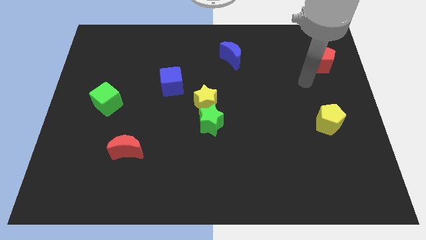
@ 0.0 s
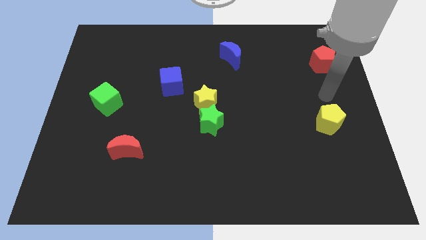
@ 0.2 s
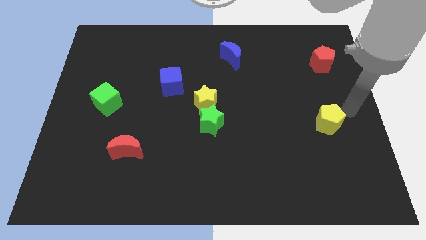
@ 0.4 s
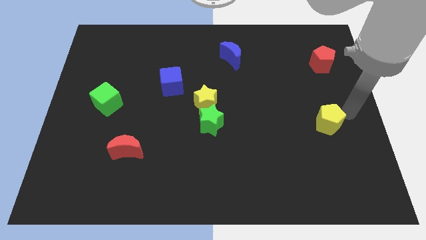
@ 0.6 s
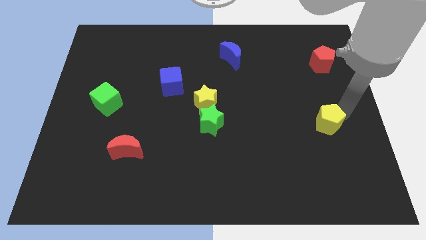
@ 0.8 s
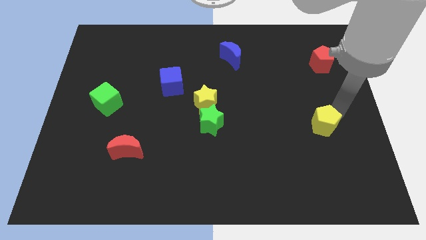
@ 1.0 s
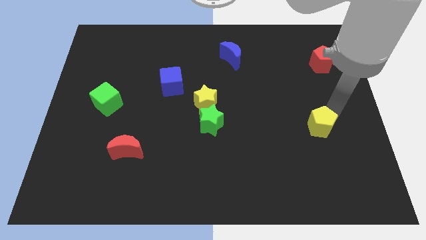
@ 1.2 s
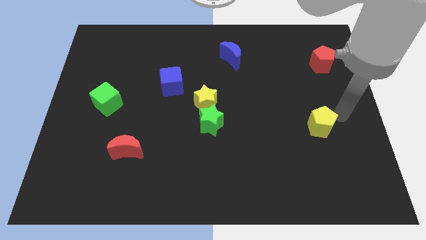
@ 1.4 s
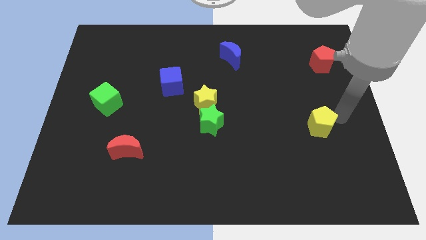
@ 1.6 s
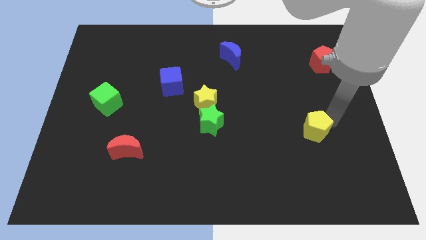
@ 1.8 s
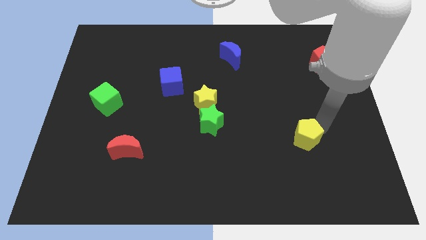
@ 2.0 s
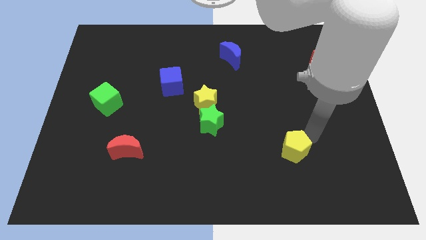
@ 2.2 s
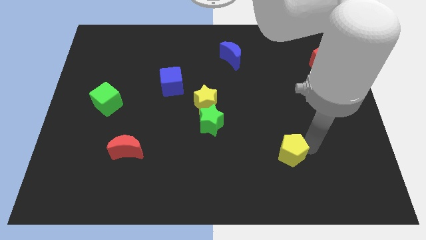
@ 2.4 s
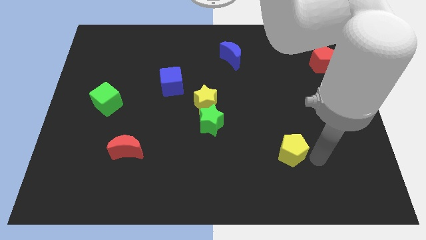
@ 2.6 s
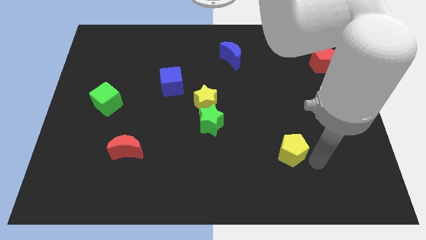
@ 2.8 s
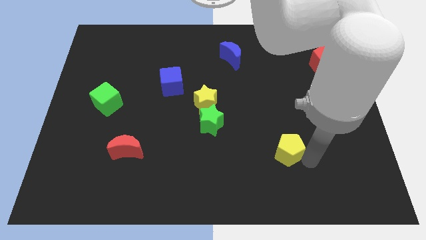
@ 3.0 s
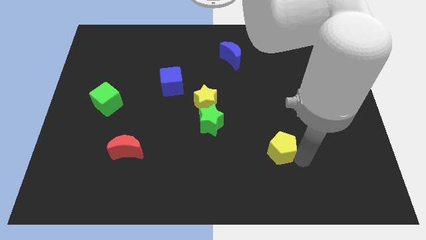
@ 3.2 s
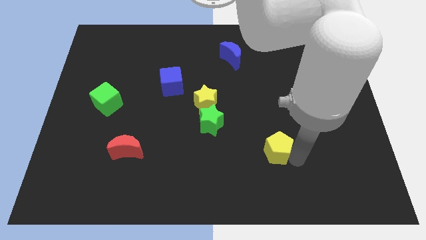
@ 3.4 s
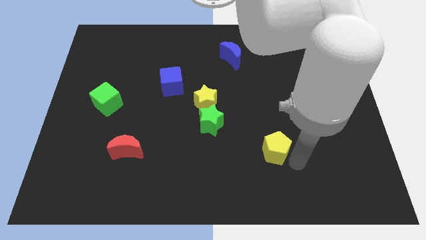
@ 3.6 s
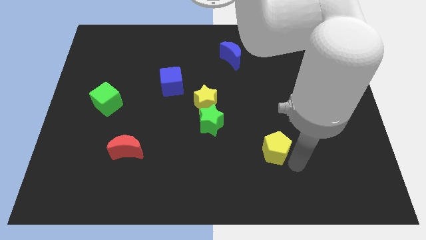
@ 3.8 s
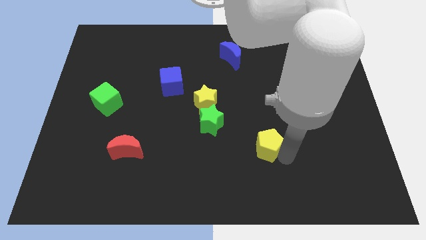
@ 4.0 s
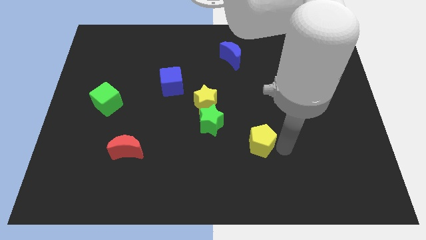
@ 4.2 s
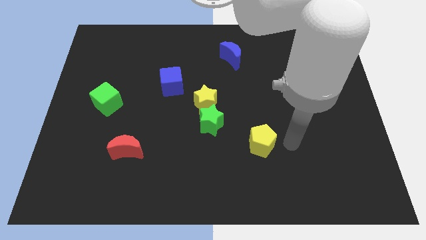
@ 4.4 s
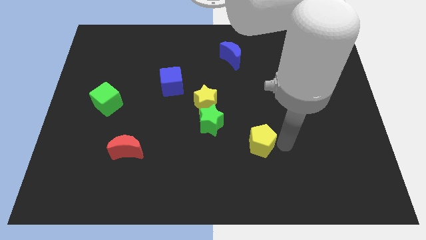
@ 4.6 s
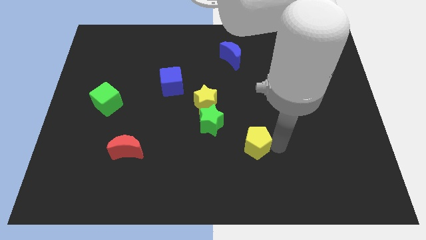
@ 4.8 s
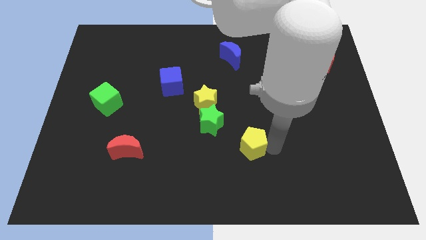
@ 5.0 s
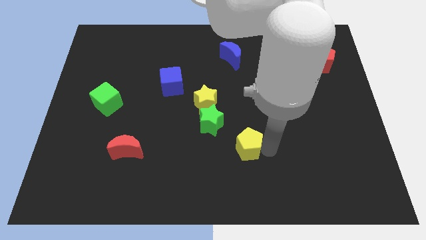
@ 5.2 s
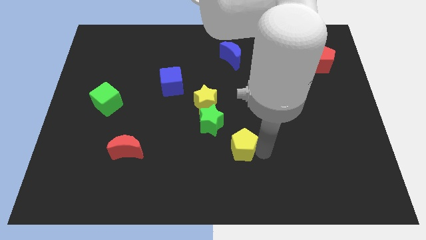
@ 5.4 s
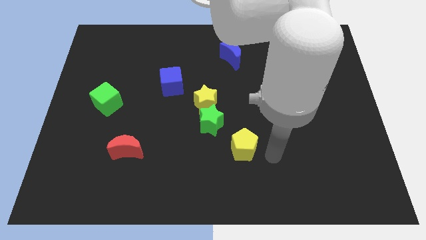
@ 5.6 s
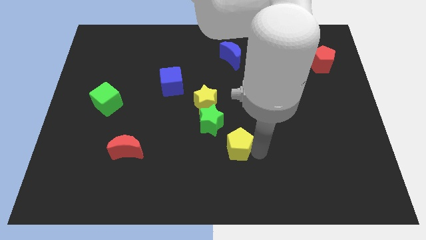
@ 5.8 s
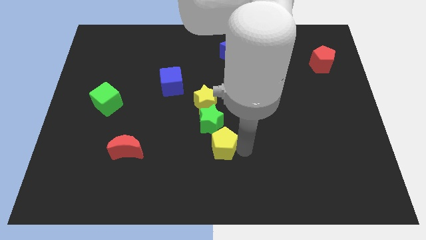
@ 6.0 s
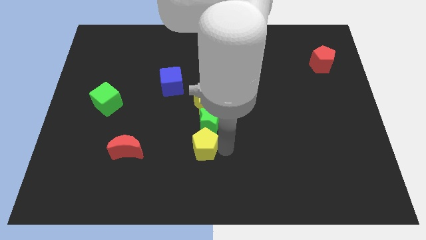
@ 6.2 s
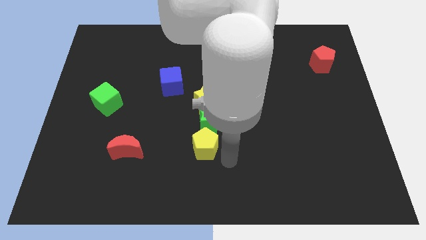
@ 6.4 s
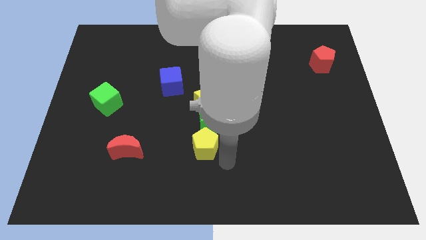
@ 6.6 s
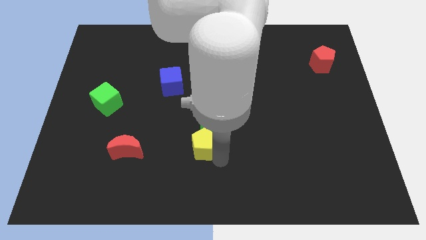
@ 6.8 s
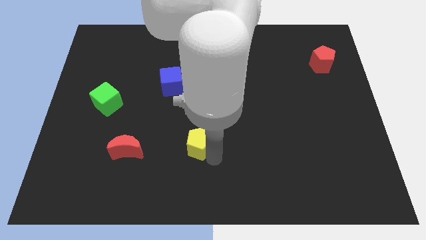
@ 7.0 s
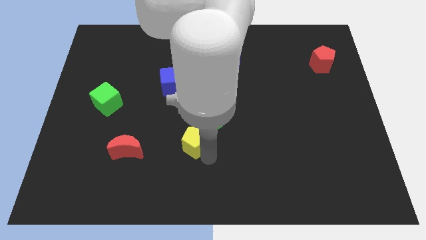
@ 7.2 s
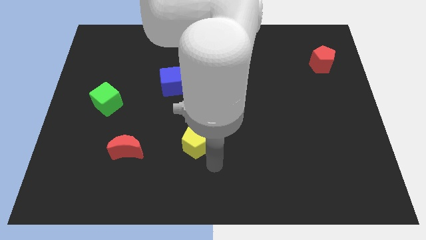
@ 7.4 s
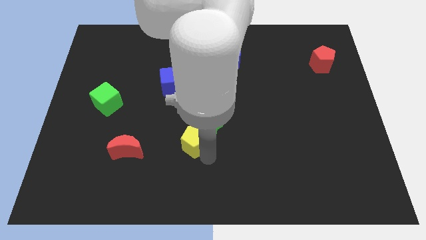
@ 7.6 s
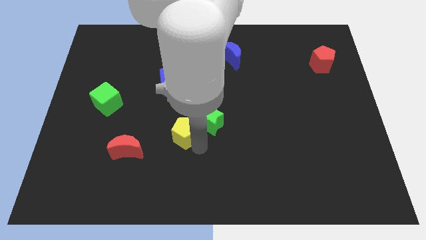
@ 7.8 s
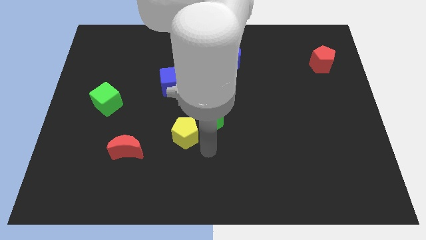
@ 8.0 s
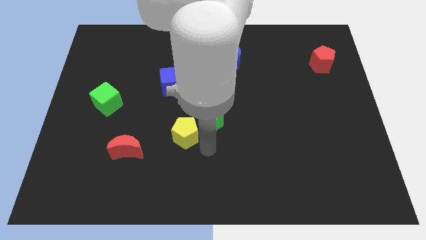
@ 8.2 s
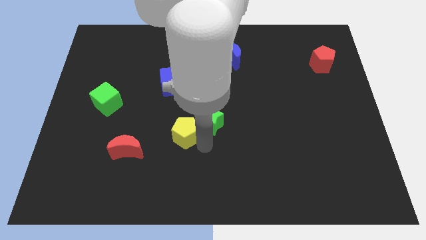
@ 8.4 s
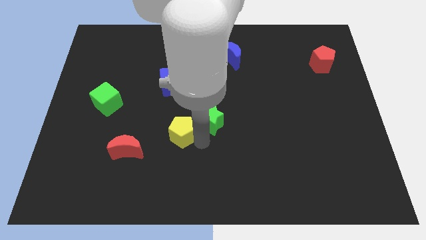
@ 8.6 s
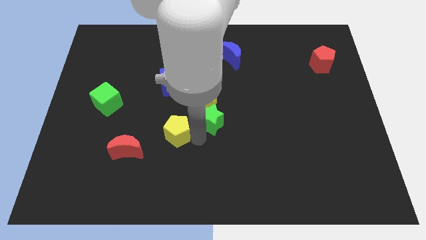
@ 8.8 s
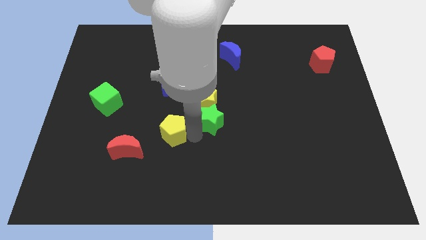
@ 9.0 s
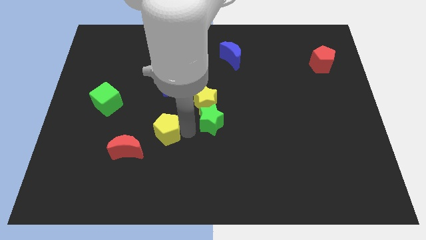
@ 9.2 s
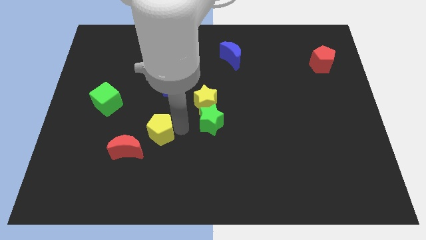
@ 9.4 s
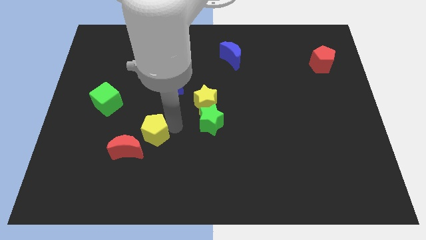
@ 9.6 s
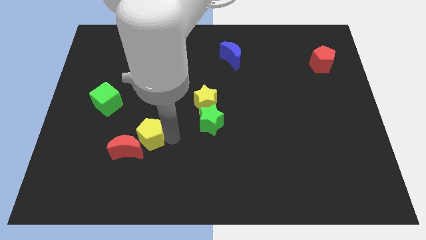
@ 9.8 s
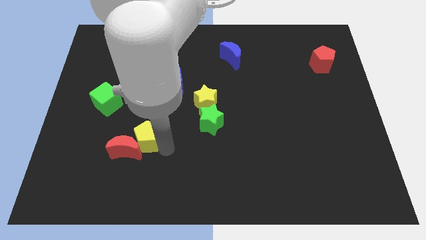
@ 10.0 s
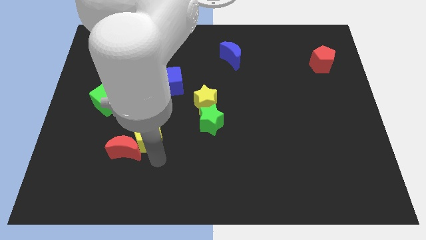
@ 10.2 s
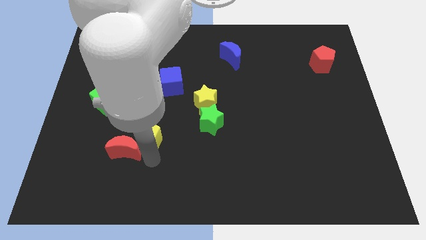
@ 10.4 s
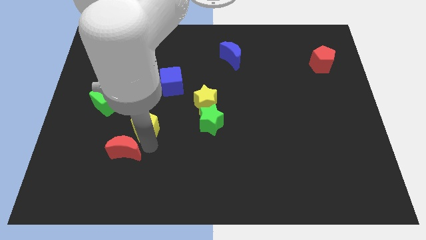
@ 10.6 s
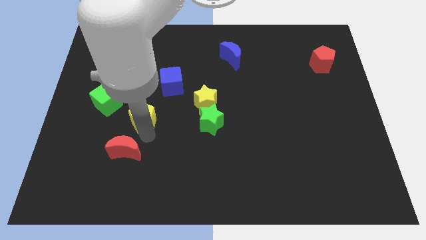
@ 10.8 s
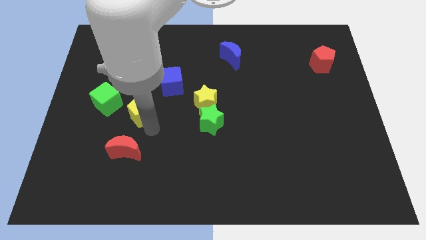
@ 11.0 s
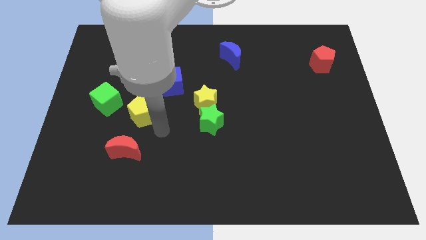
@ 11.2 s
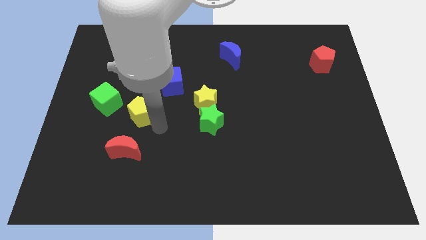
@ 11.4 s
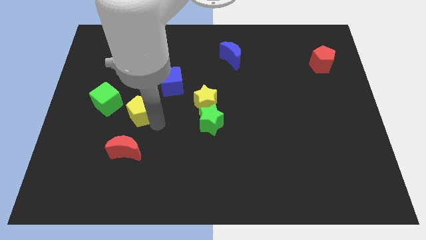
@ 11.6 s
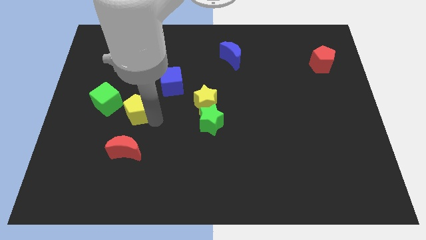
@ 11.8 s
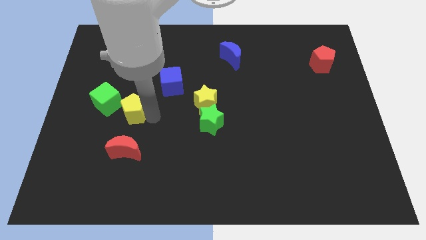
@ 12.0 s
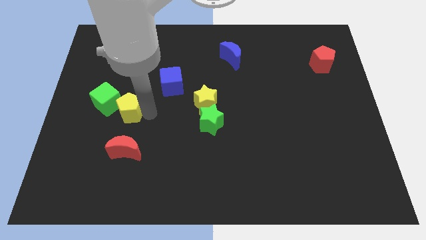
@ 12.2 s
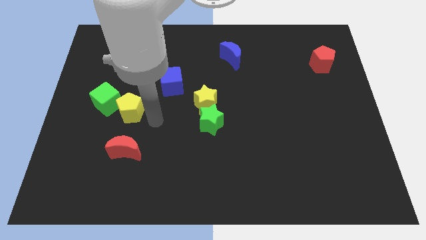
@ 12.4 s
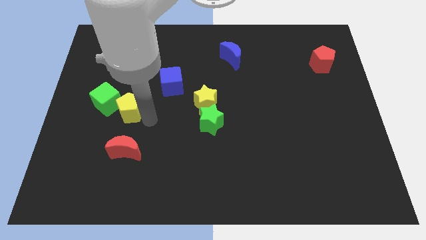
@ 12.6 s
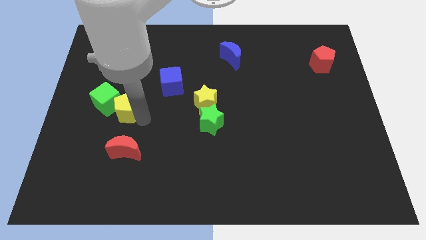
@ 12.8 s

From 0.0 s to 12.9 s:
slide the yellow pentagon towards the green cube
